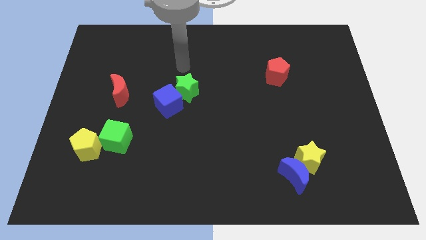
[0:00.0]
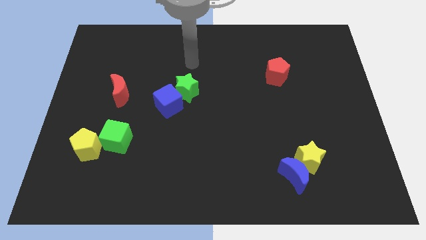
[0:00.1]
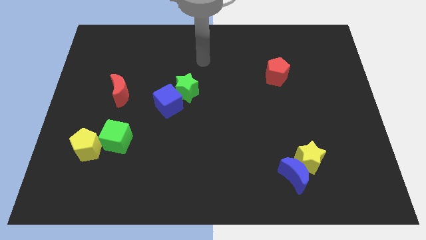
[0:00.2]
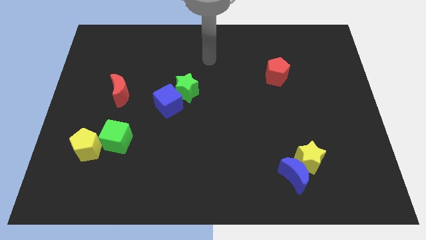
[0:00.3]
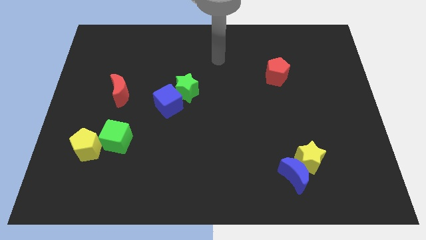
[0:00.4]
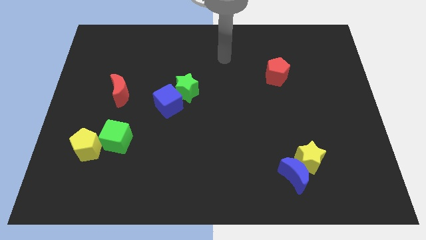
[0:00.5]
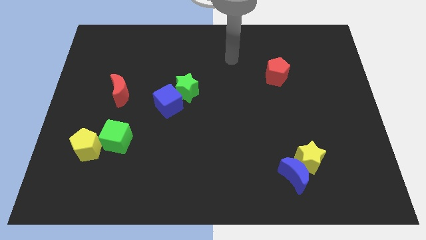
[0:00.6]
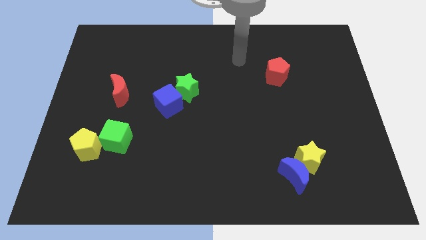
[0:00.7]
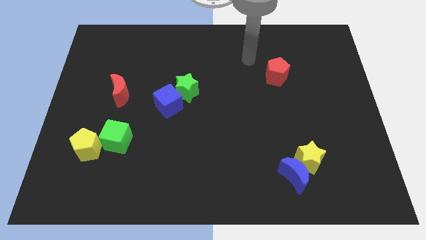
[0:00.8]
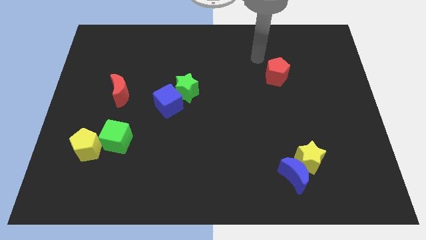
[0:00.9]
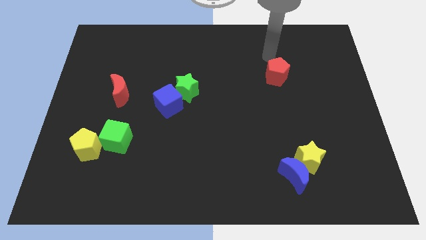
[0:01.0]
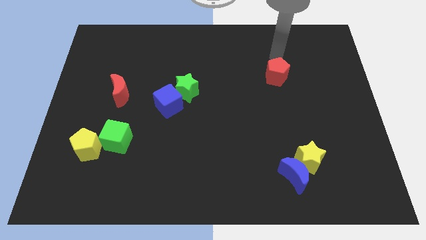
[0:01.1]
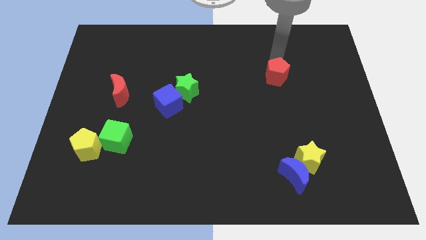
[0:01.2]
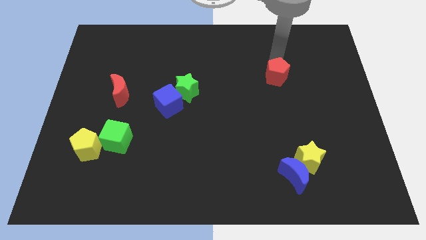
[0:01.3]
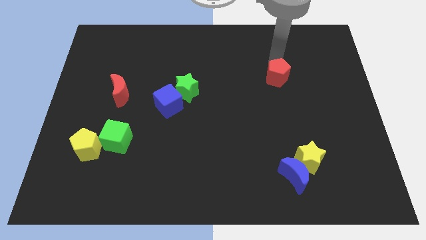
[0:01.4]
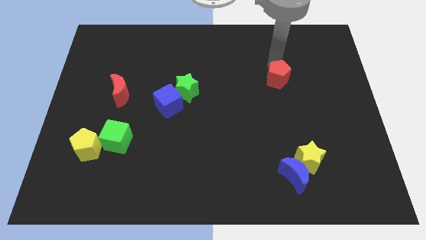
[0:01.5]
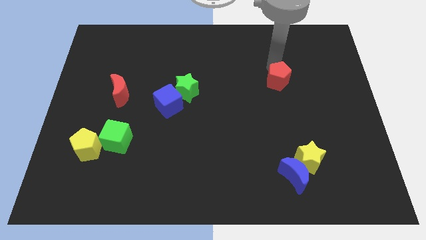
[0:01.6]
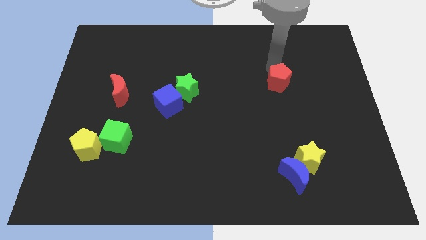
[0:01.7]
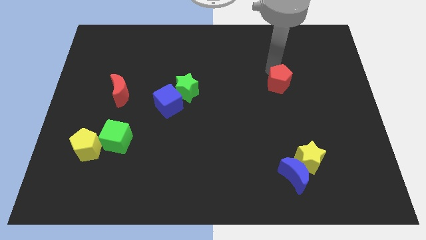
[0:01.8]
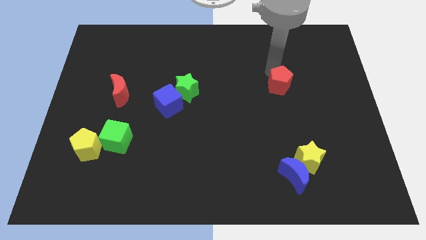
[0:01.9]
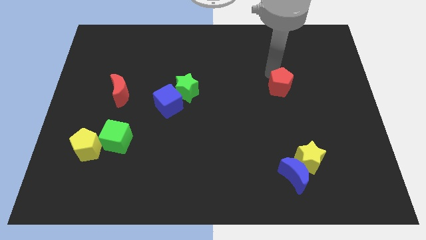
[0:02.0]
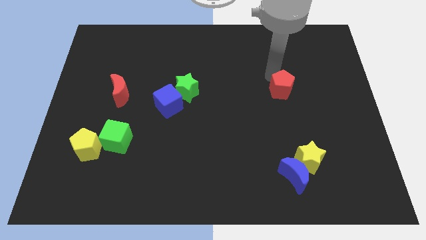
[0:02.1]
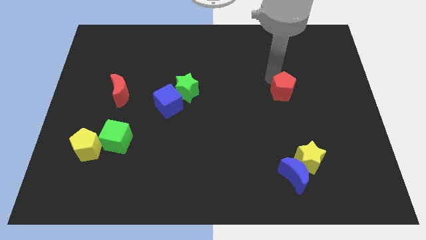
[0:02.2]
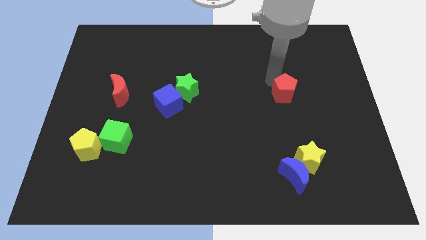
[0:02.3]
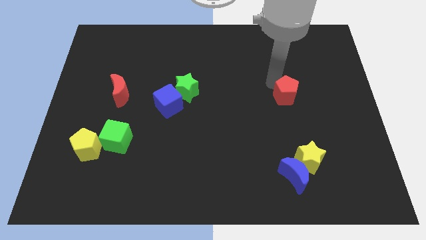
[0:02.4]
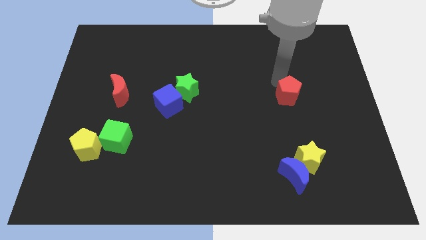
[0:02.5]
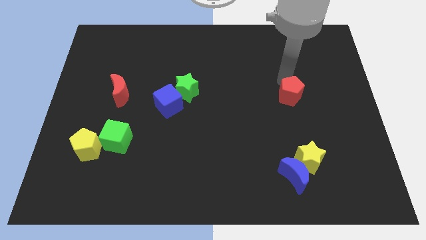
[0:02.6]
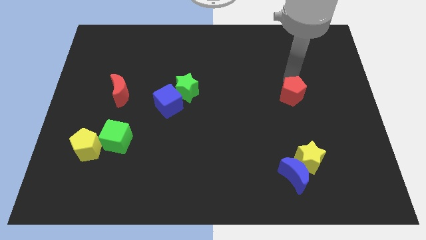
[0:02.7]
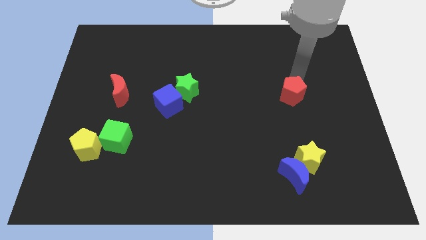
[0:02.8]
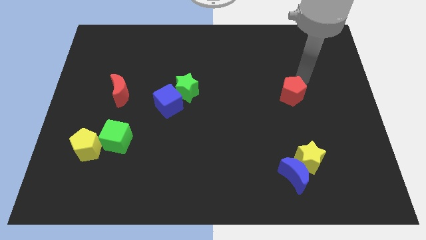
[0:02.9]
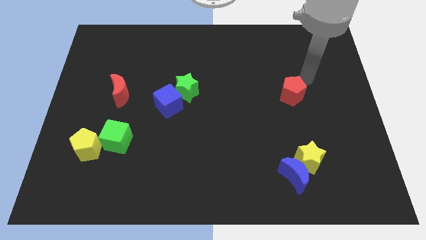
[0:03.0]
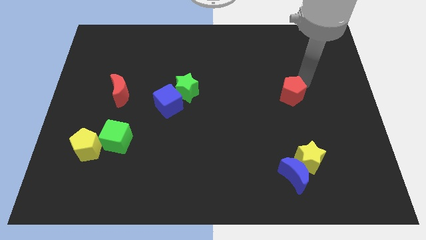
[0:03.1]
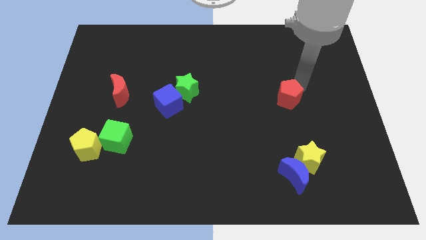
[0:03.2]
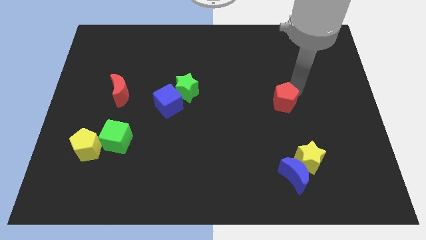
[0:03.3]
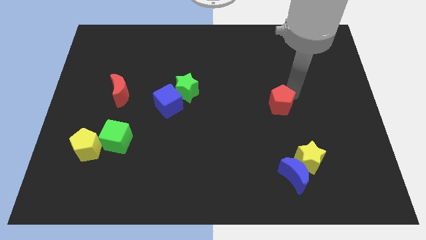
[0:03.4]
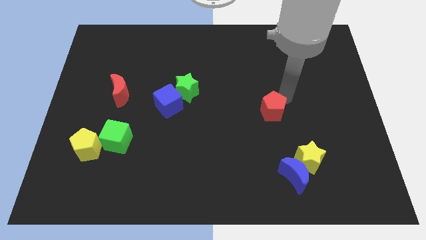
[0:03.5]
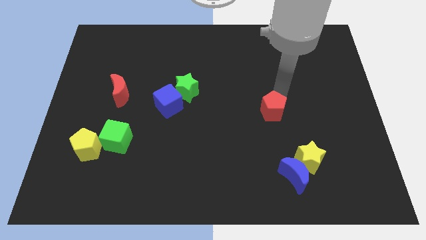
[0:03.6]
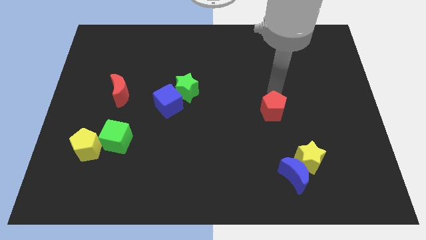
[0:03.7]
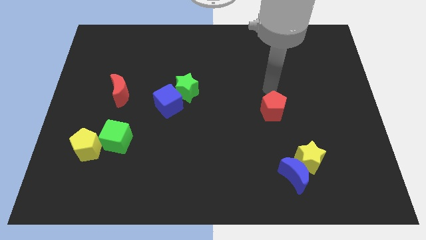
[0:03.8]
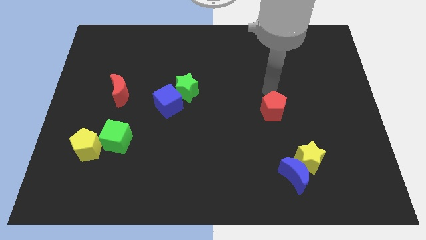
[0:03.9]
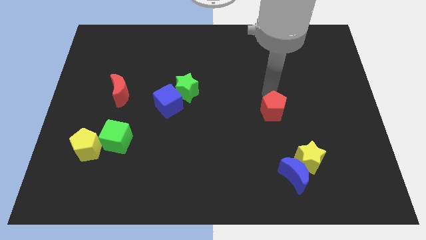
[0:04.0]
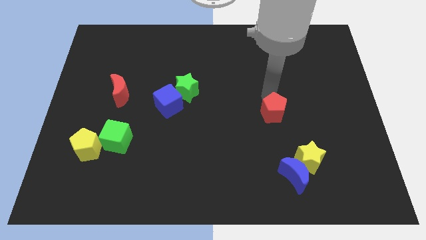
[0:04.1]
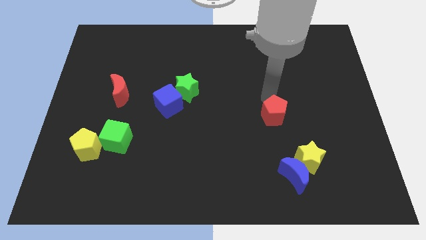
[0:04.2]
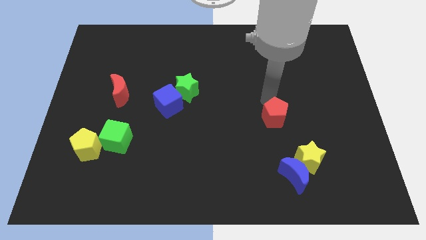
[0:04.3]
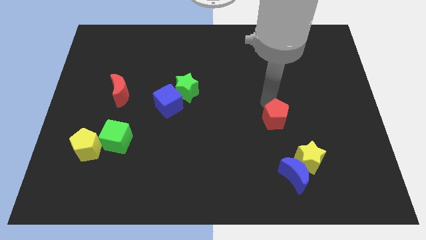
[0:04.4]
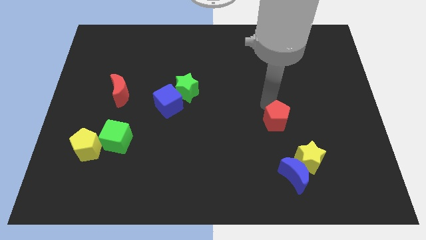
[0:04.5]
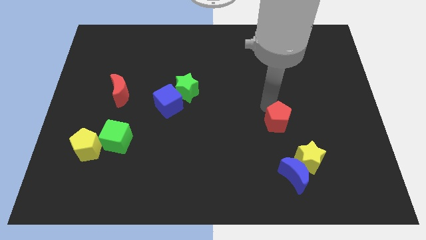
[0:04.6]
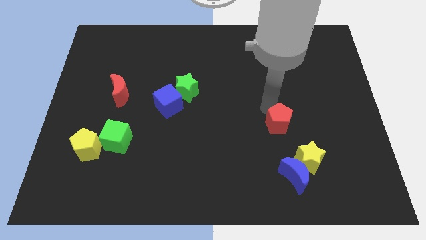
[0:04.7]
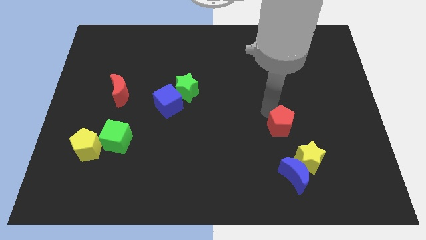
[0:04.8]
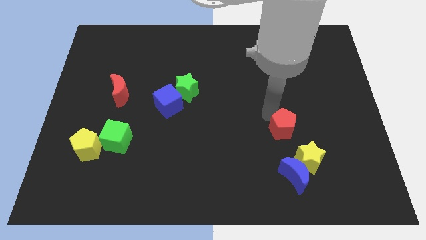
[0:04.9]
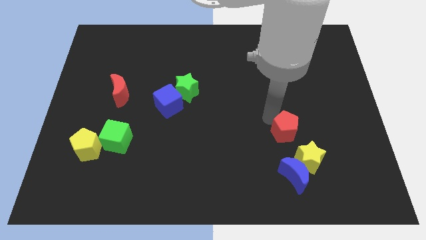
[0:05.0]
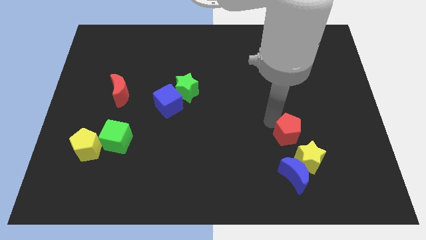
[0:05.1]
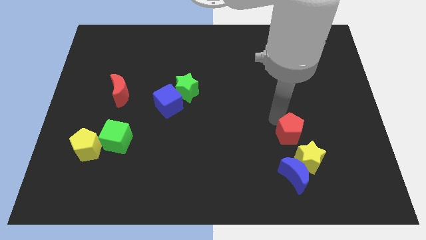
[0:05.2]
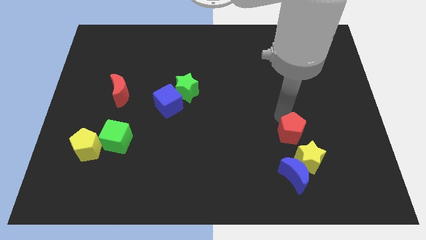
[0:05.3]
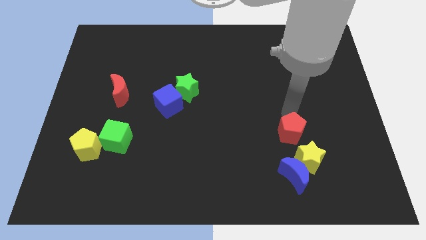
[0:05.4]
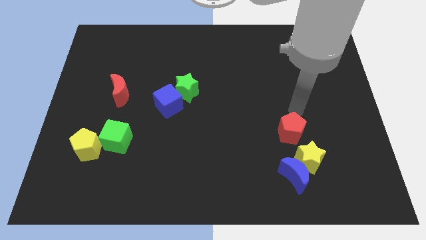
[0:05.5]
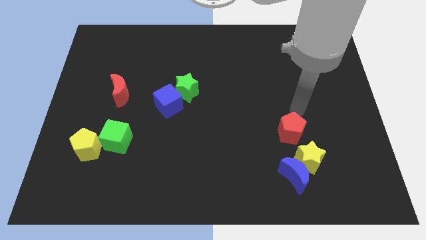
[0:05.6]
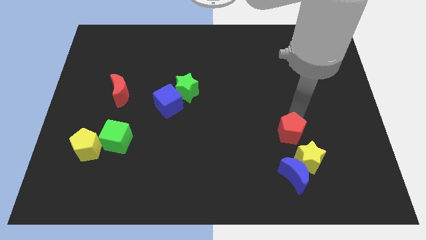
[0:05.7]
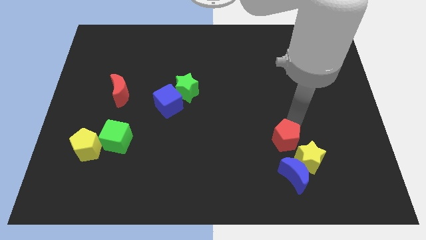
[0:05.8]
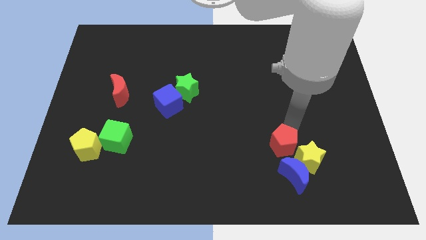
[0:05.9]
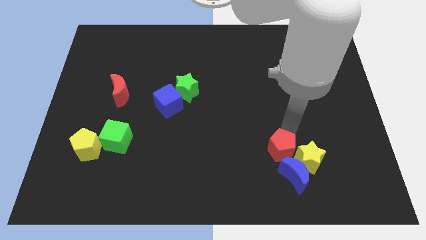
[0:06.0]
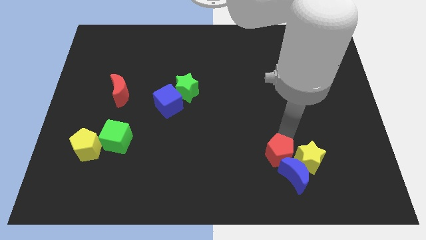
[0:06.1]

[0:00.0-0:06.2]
slide the red pentagon next to the blue moon

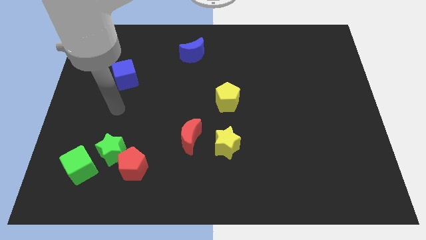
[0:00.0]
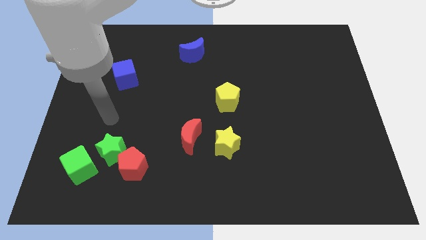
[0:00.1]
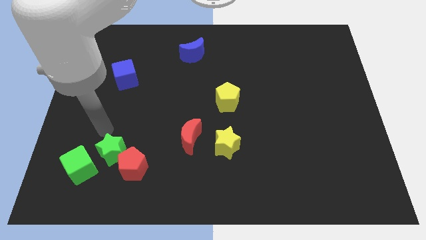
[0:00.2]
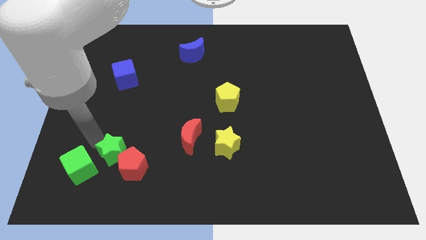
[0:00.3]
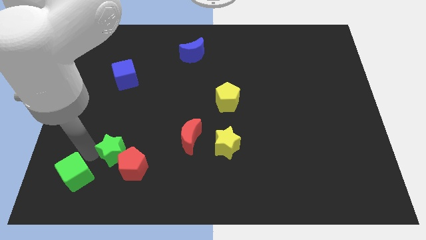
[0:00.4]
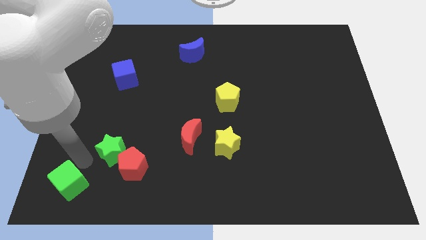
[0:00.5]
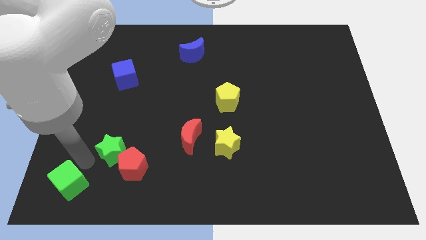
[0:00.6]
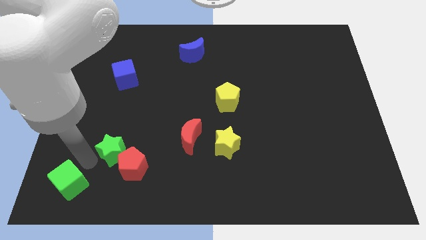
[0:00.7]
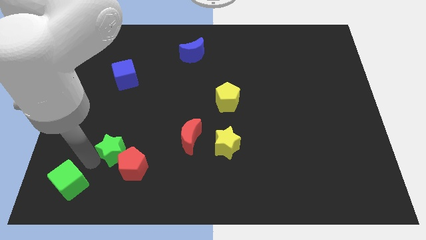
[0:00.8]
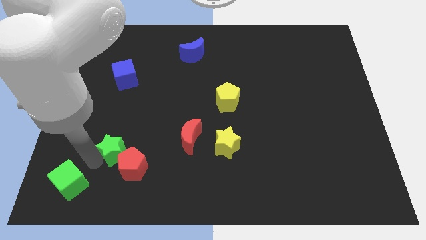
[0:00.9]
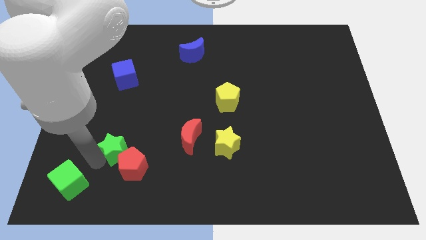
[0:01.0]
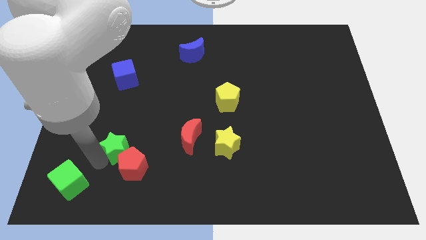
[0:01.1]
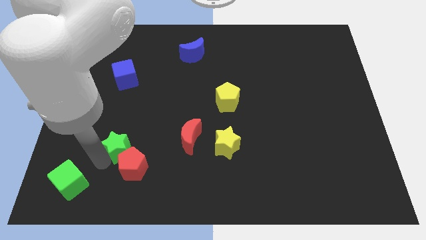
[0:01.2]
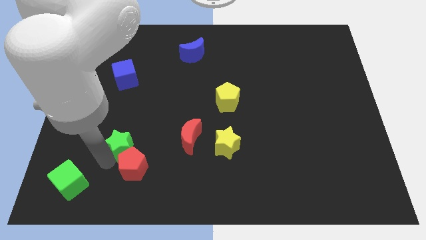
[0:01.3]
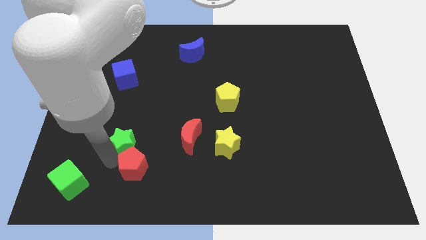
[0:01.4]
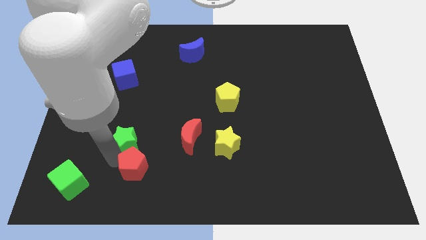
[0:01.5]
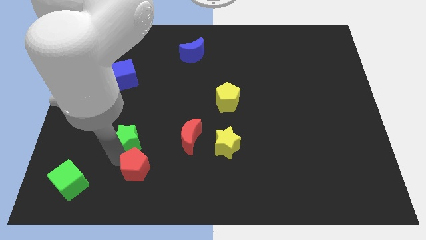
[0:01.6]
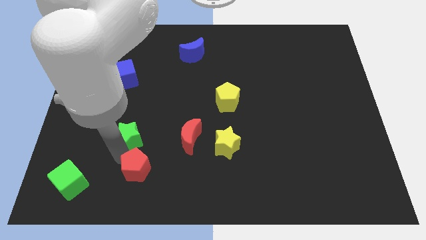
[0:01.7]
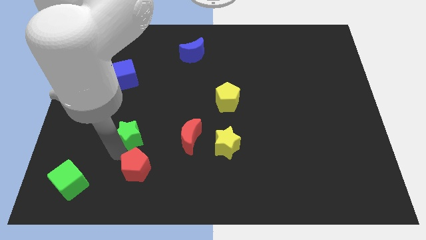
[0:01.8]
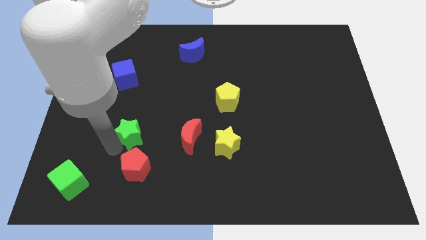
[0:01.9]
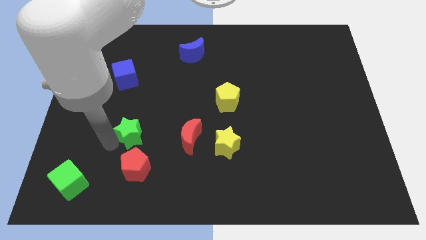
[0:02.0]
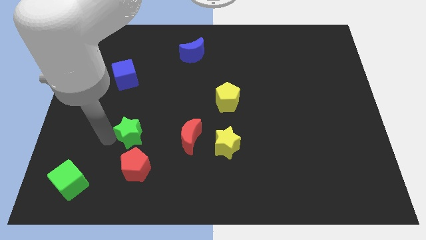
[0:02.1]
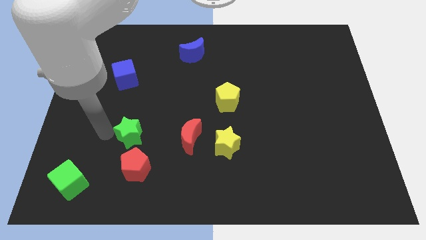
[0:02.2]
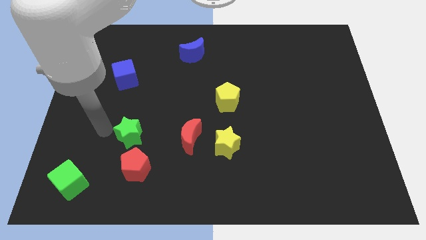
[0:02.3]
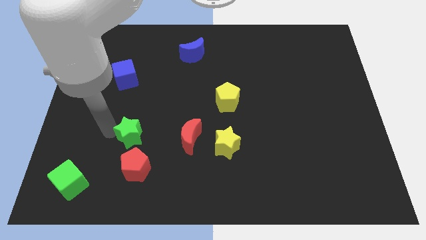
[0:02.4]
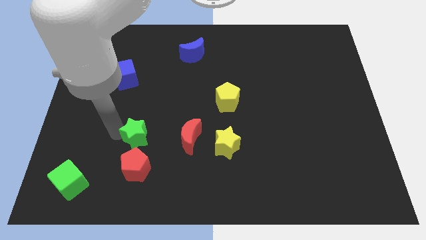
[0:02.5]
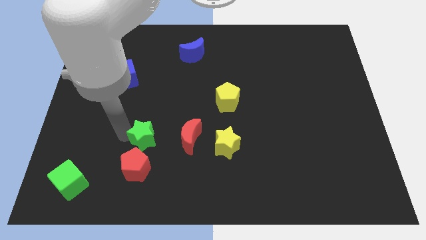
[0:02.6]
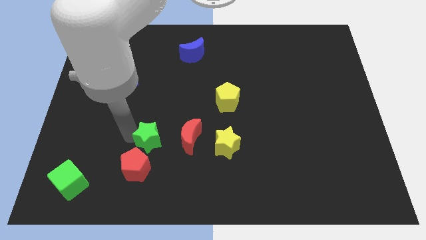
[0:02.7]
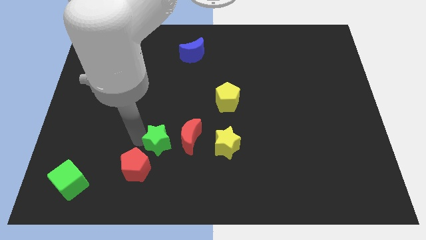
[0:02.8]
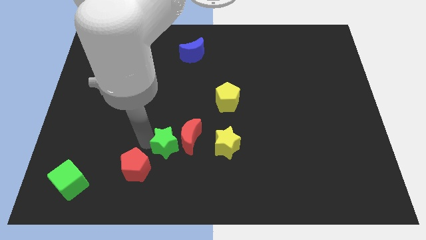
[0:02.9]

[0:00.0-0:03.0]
put the green star towards the red moon
